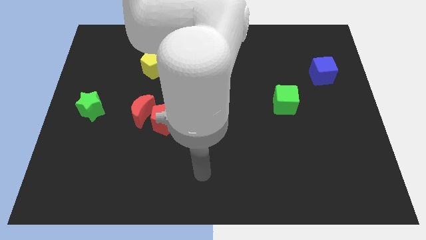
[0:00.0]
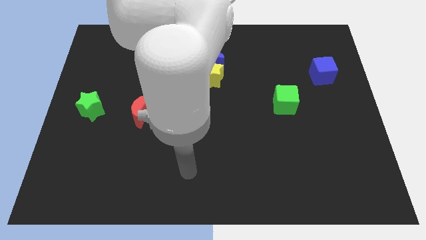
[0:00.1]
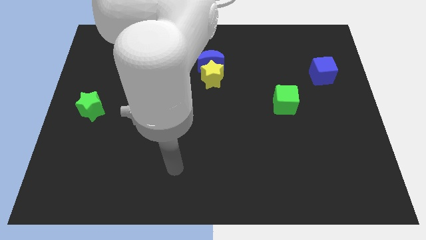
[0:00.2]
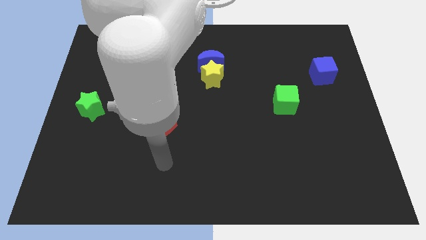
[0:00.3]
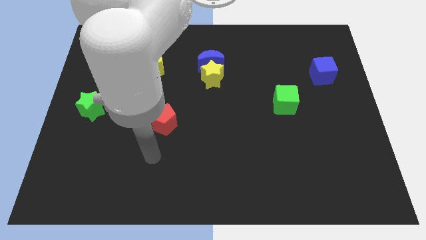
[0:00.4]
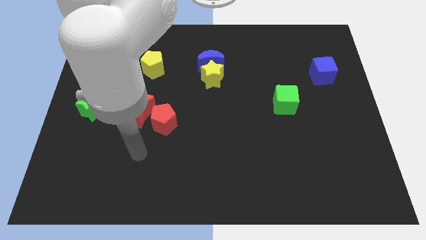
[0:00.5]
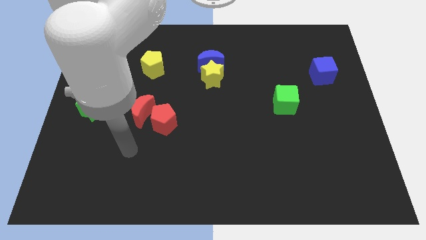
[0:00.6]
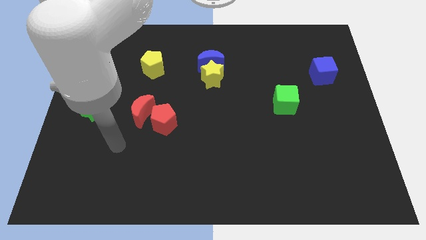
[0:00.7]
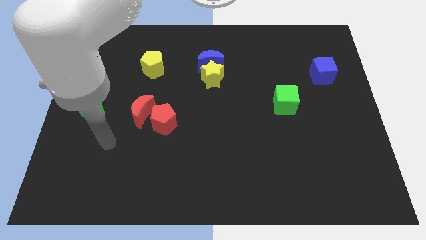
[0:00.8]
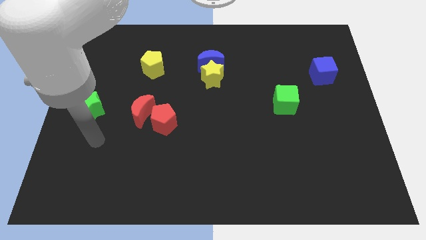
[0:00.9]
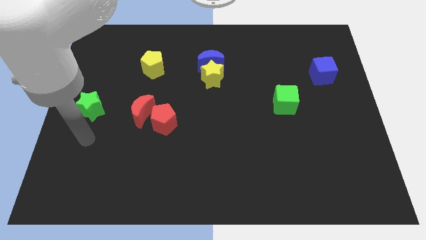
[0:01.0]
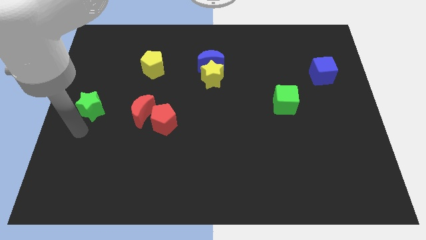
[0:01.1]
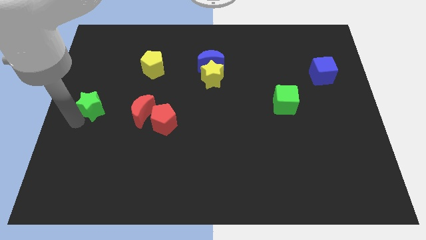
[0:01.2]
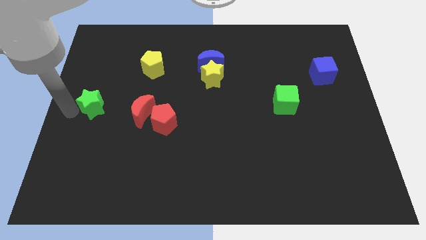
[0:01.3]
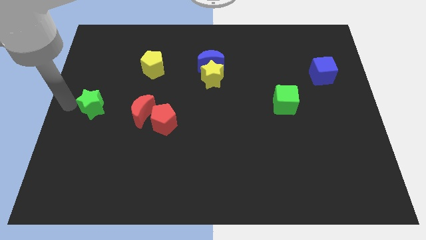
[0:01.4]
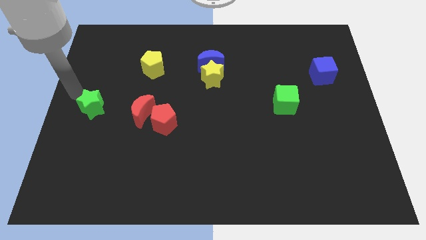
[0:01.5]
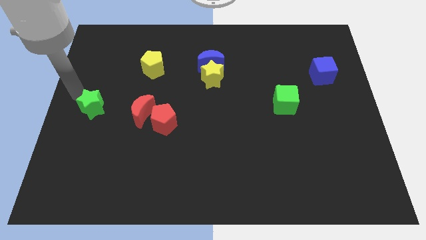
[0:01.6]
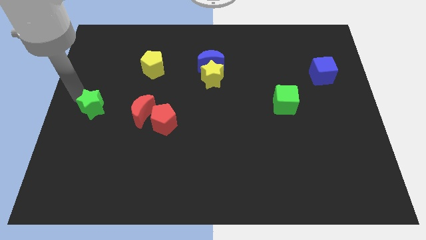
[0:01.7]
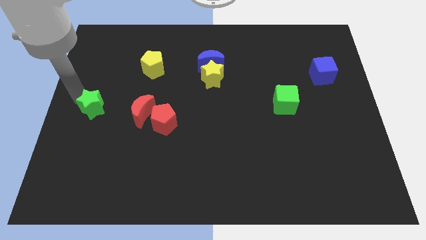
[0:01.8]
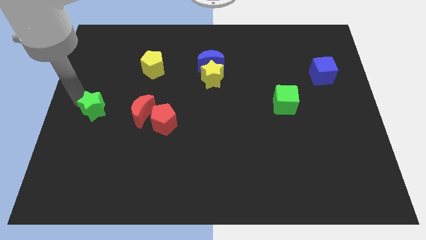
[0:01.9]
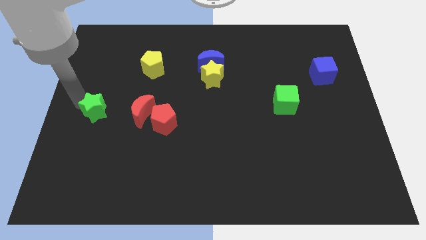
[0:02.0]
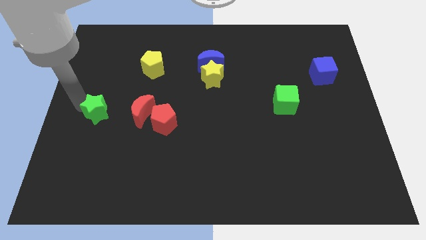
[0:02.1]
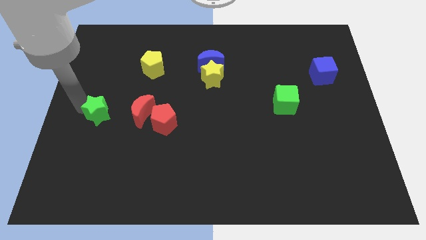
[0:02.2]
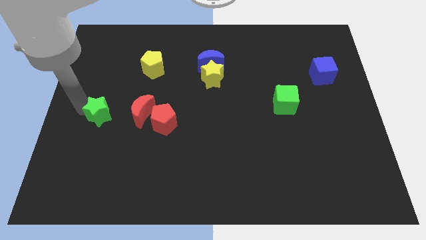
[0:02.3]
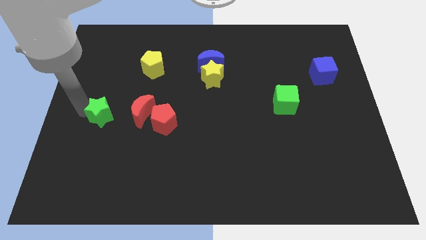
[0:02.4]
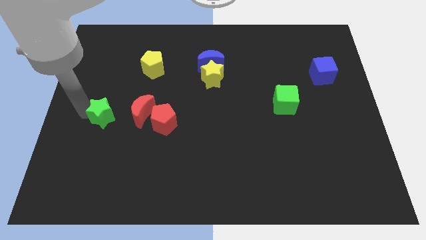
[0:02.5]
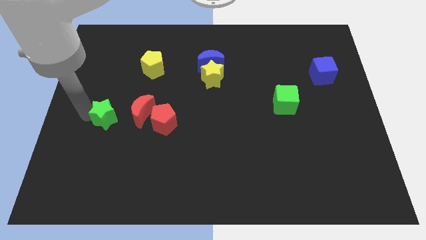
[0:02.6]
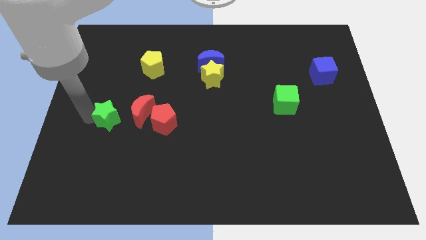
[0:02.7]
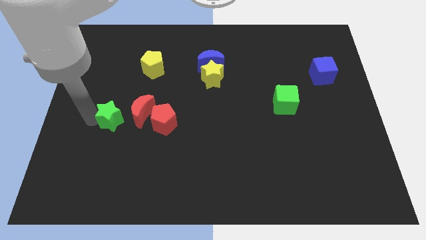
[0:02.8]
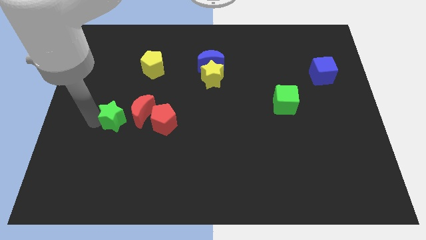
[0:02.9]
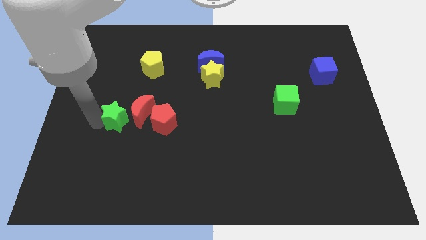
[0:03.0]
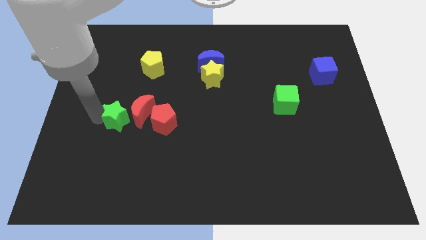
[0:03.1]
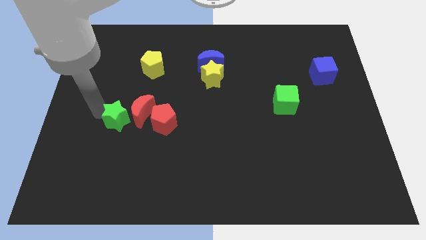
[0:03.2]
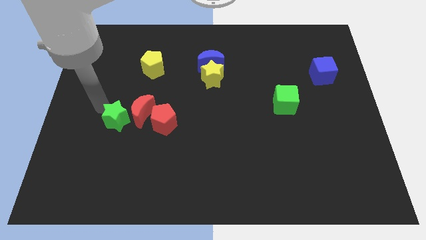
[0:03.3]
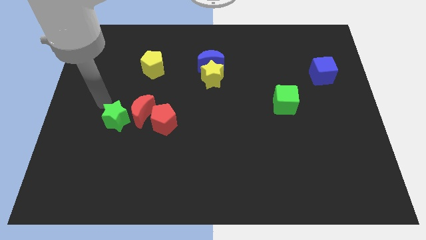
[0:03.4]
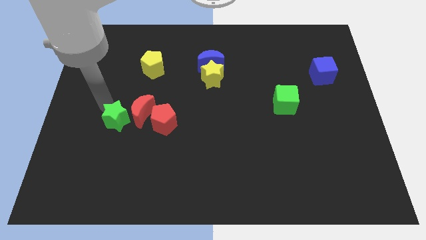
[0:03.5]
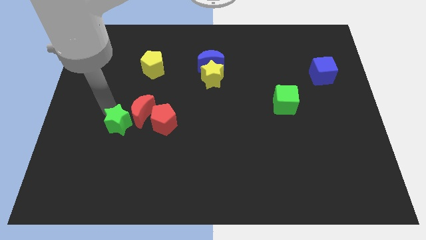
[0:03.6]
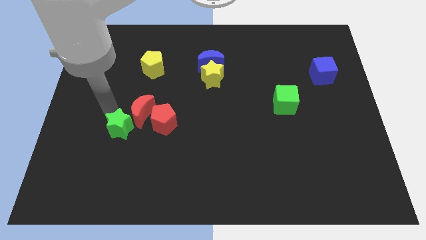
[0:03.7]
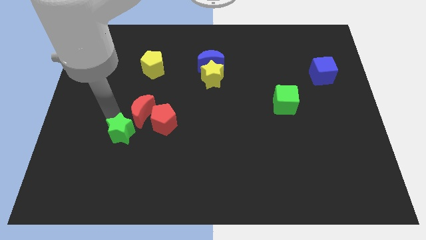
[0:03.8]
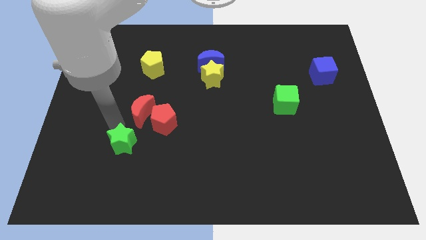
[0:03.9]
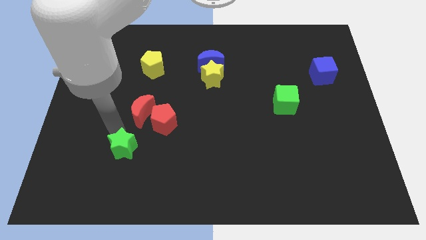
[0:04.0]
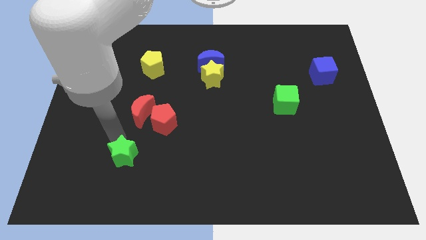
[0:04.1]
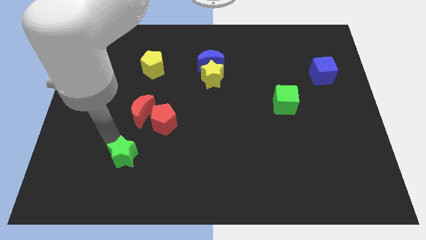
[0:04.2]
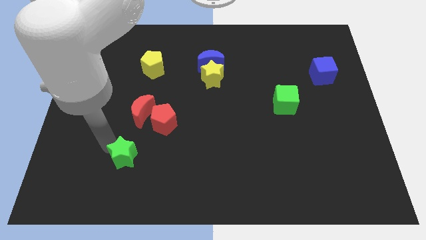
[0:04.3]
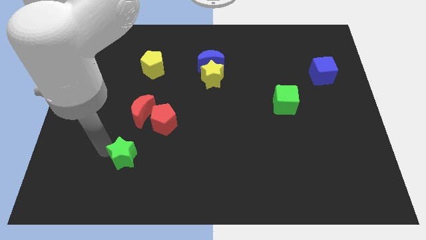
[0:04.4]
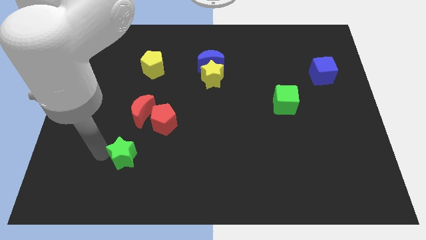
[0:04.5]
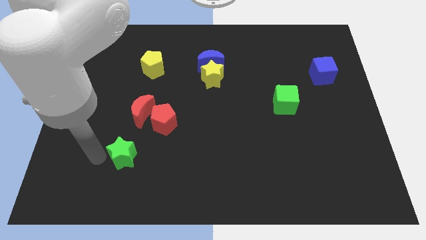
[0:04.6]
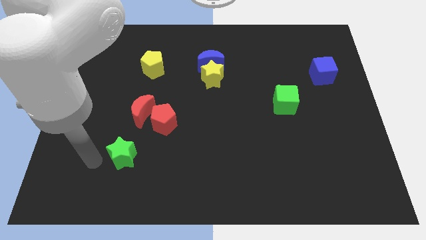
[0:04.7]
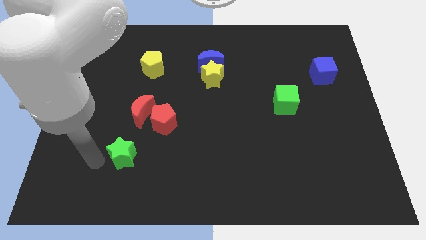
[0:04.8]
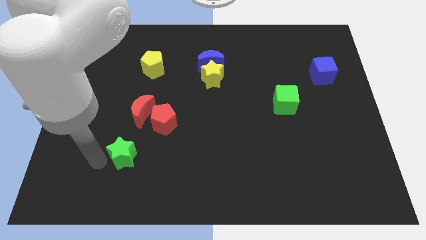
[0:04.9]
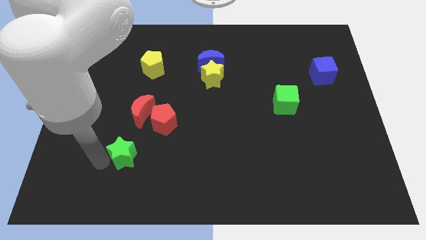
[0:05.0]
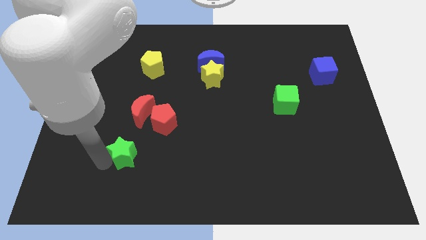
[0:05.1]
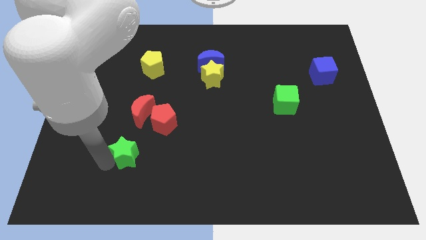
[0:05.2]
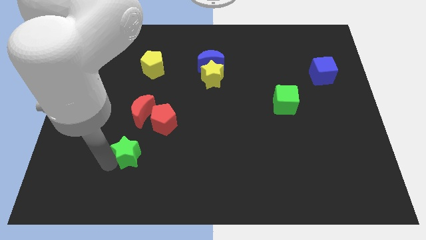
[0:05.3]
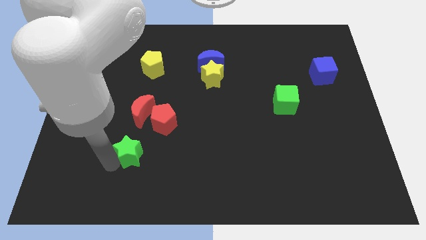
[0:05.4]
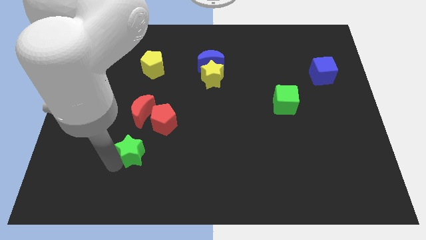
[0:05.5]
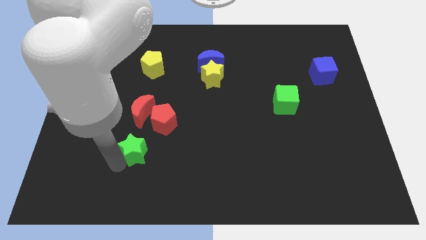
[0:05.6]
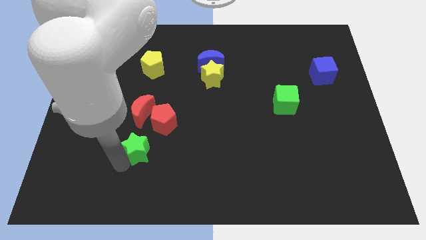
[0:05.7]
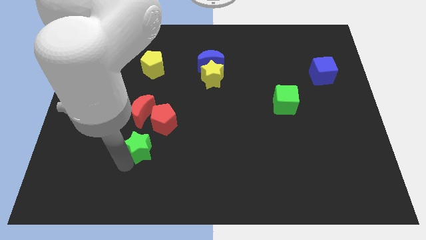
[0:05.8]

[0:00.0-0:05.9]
push the green star to the bottom of the red pentagon
